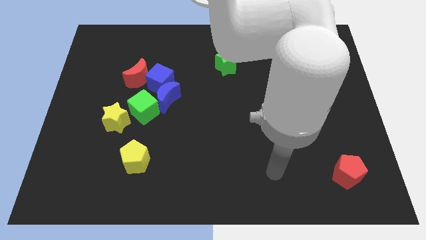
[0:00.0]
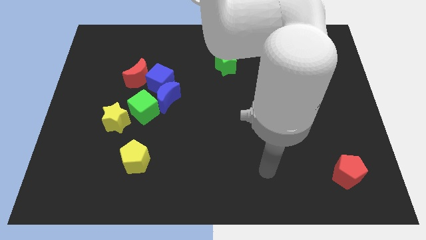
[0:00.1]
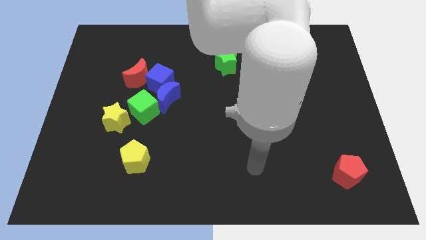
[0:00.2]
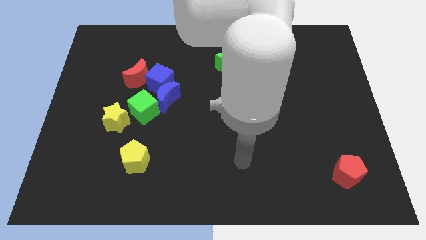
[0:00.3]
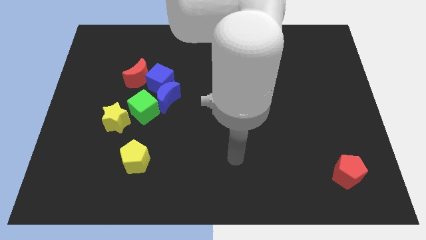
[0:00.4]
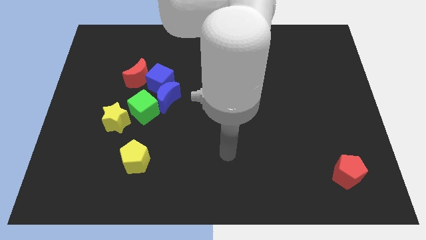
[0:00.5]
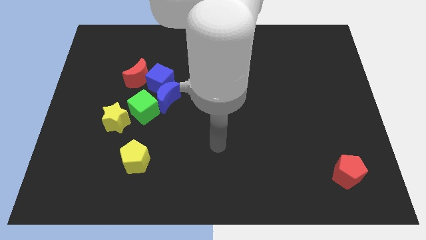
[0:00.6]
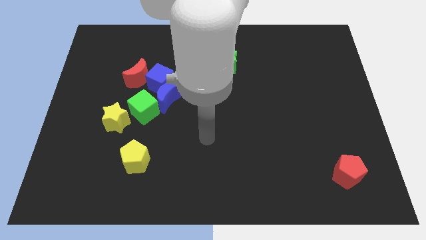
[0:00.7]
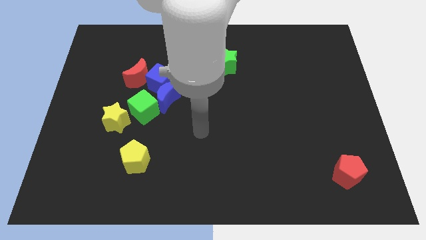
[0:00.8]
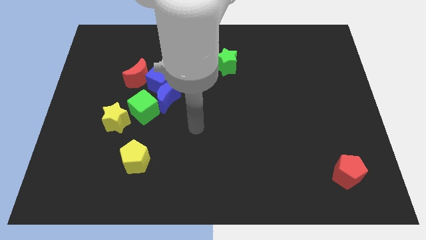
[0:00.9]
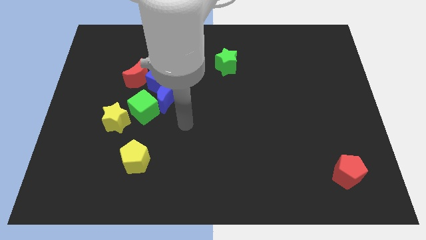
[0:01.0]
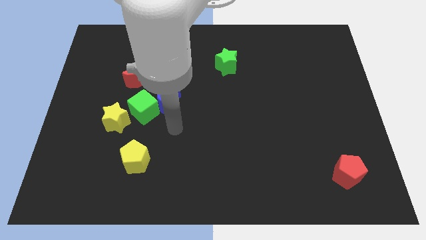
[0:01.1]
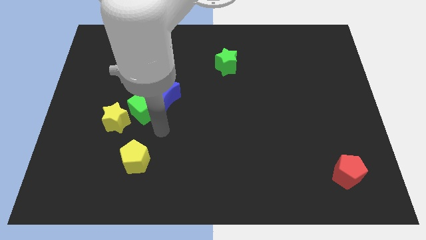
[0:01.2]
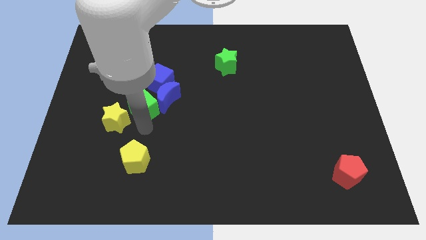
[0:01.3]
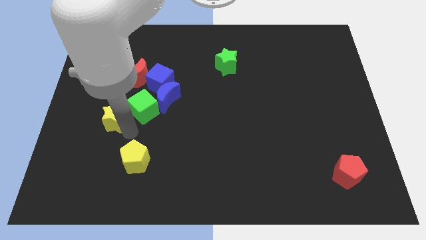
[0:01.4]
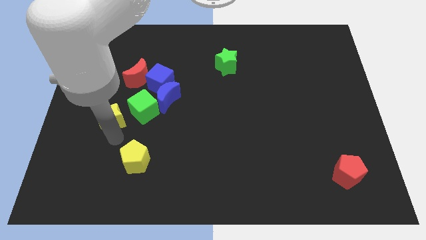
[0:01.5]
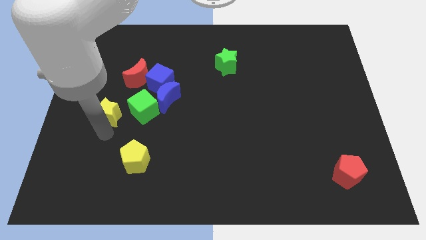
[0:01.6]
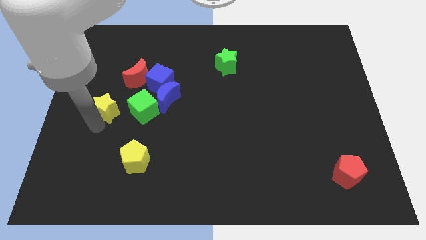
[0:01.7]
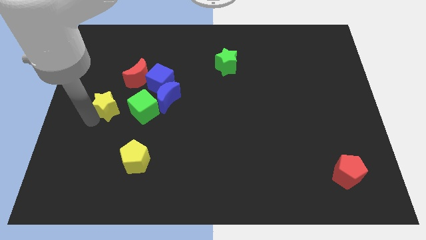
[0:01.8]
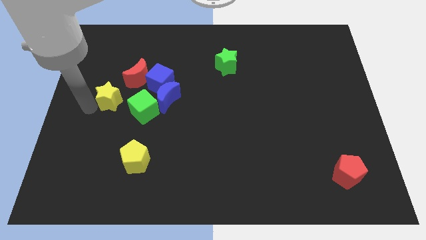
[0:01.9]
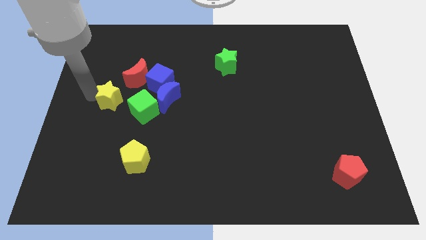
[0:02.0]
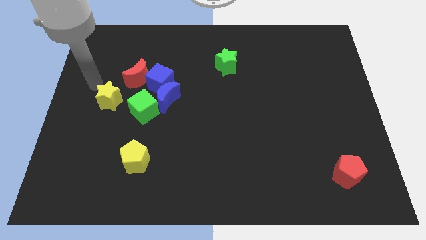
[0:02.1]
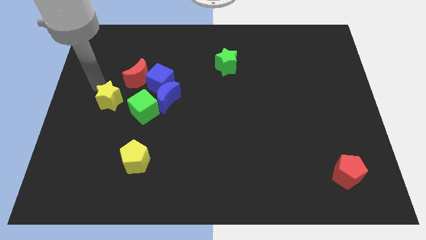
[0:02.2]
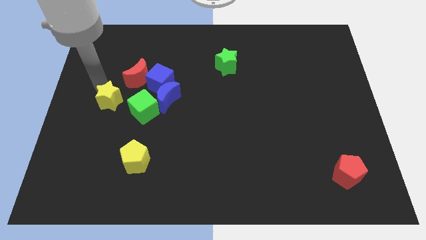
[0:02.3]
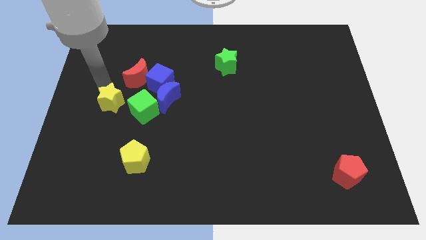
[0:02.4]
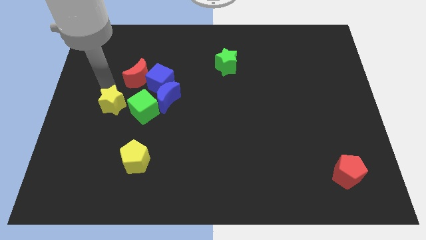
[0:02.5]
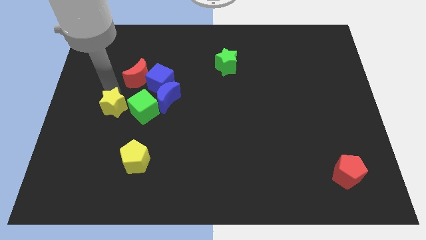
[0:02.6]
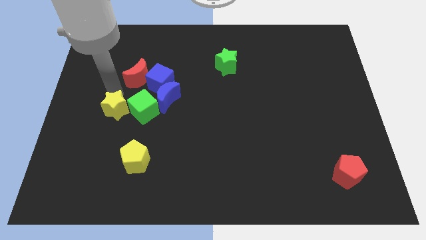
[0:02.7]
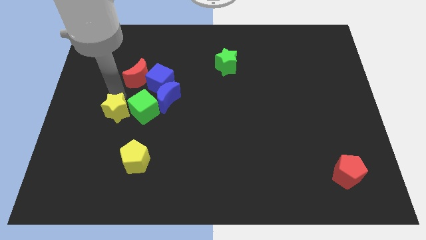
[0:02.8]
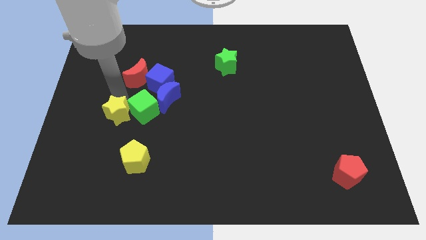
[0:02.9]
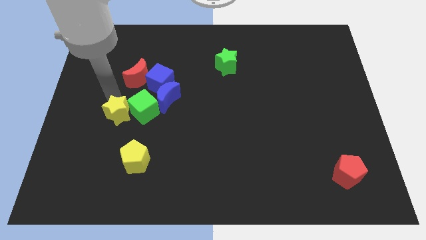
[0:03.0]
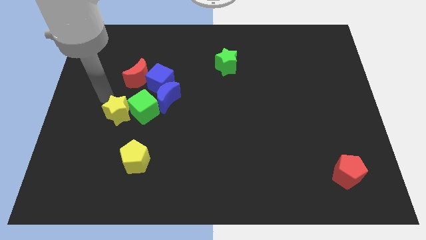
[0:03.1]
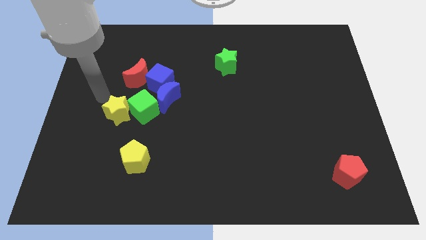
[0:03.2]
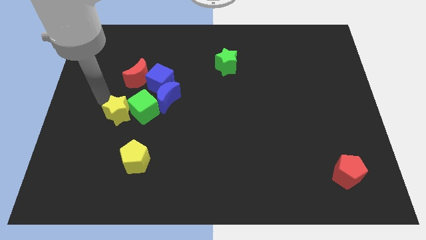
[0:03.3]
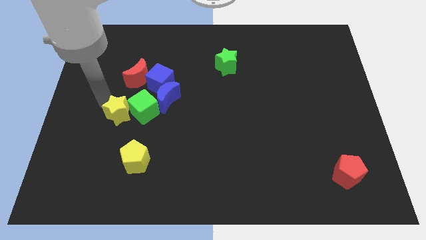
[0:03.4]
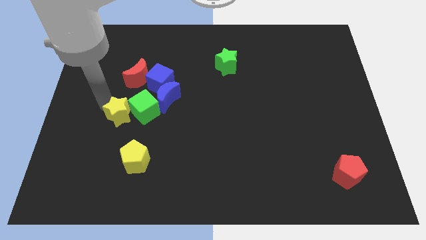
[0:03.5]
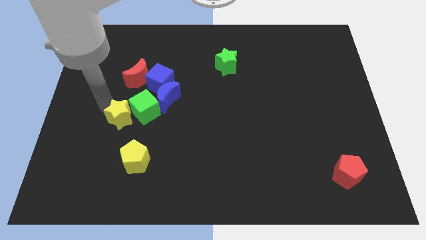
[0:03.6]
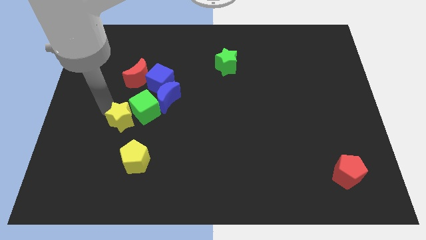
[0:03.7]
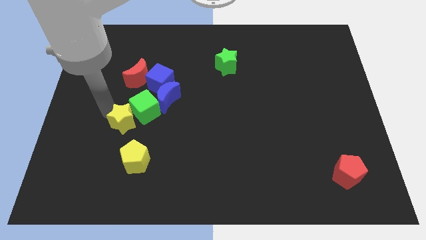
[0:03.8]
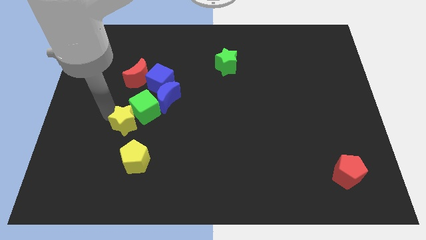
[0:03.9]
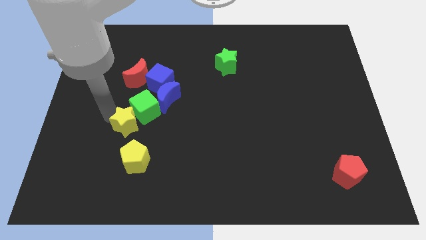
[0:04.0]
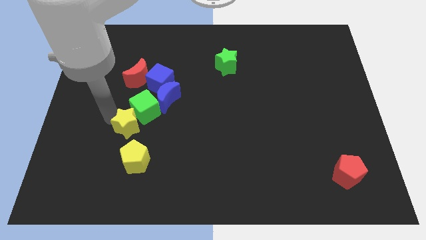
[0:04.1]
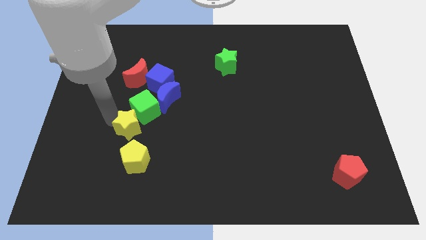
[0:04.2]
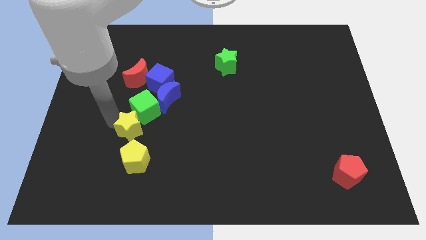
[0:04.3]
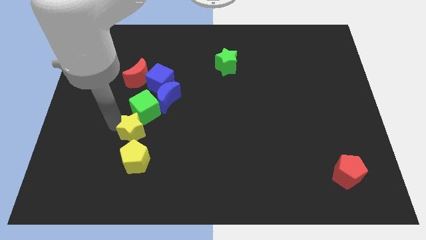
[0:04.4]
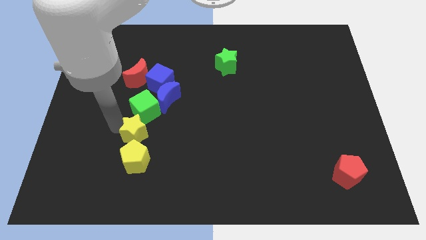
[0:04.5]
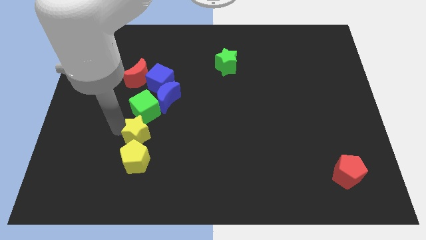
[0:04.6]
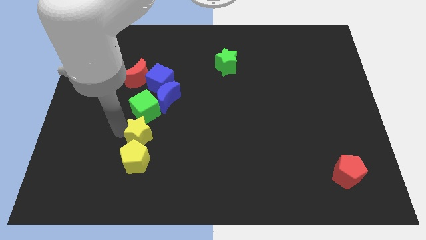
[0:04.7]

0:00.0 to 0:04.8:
slide the yellow star to the top right side of the yellow pentagon

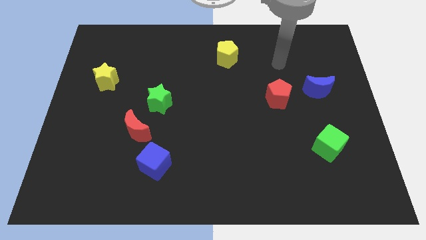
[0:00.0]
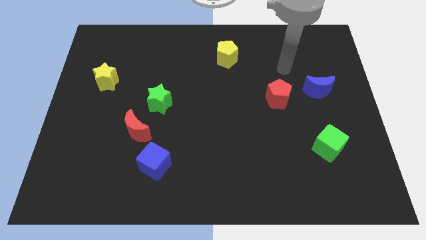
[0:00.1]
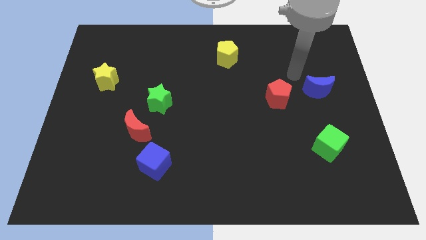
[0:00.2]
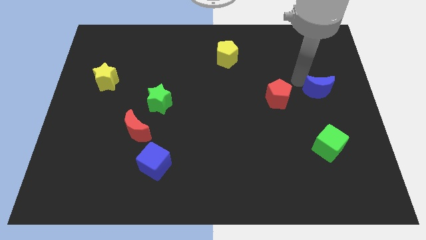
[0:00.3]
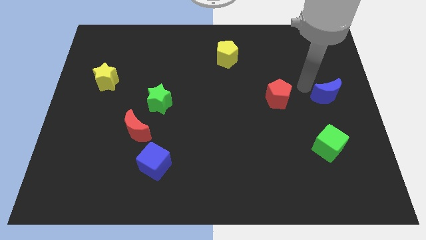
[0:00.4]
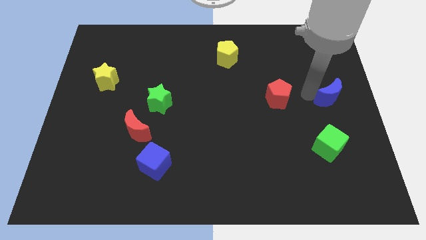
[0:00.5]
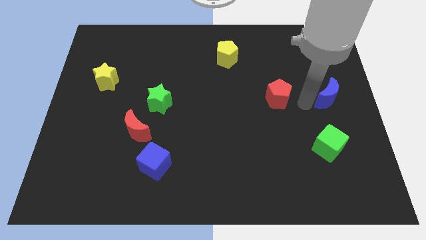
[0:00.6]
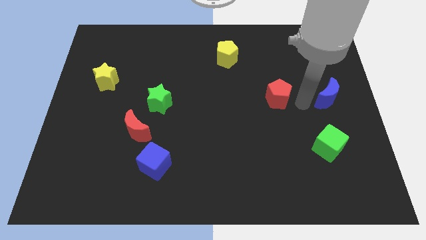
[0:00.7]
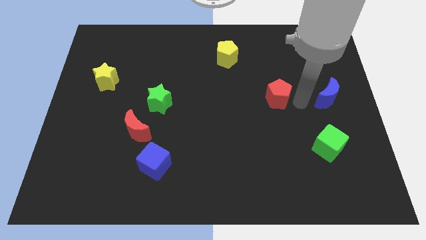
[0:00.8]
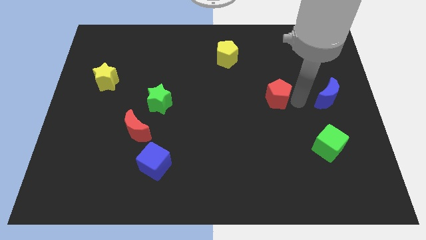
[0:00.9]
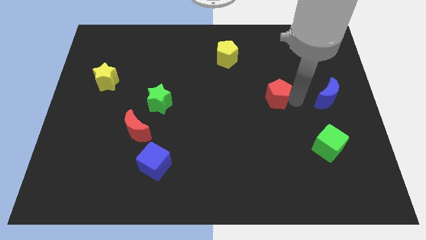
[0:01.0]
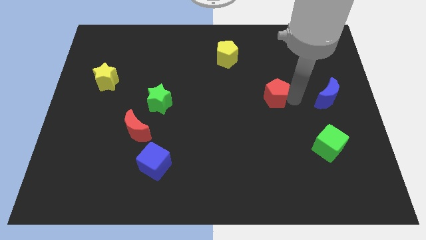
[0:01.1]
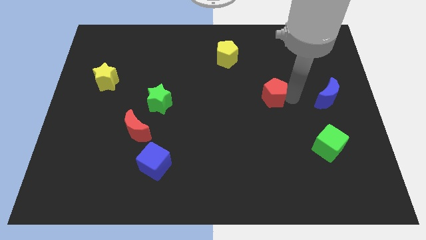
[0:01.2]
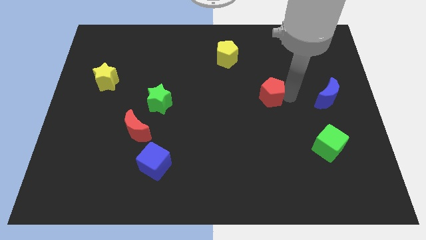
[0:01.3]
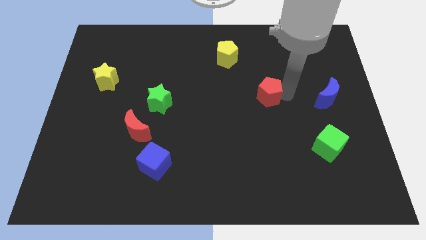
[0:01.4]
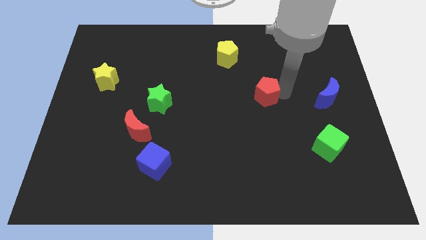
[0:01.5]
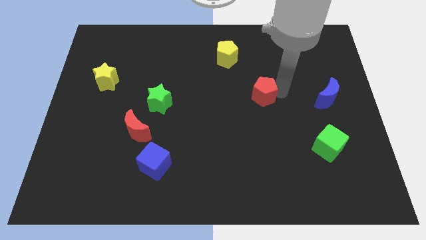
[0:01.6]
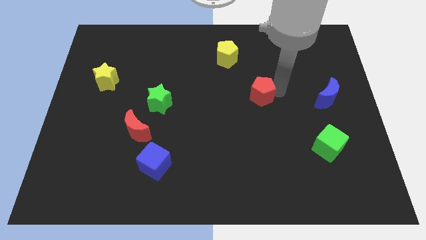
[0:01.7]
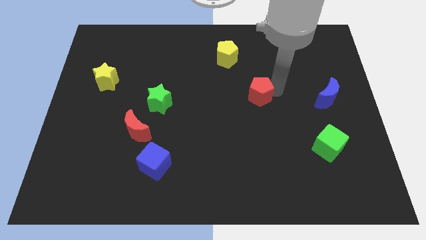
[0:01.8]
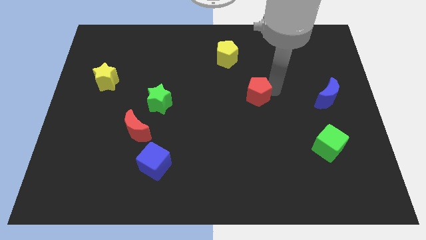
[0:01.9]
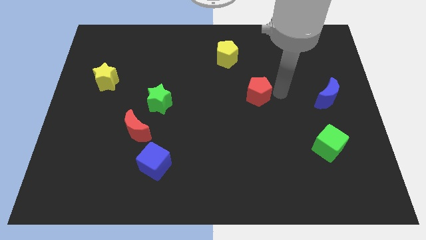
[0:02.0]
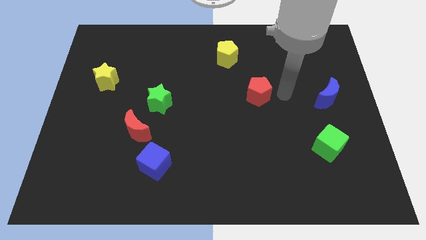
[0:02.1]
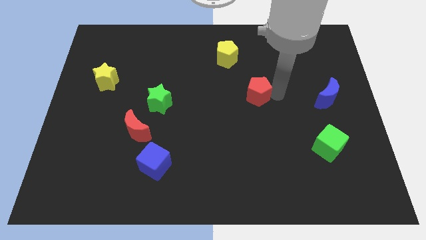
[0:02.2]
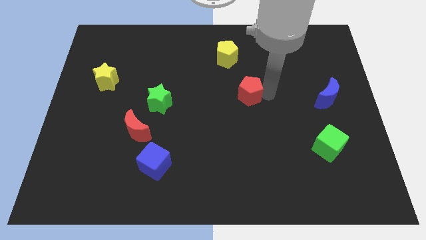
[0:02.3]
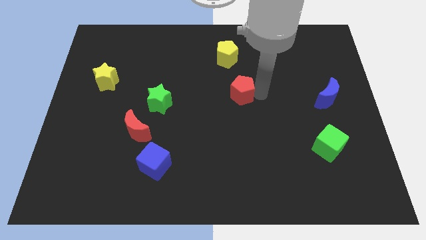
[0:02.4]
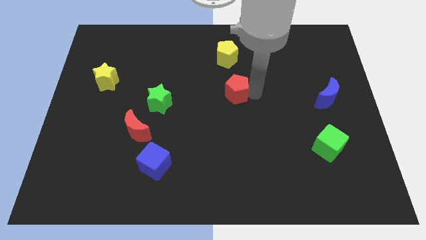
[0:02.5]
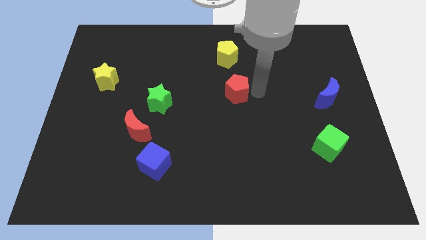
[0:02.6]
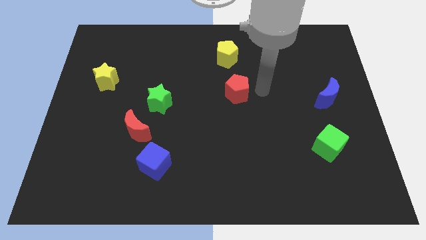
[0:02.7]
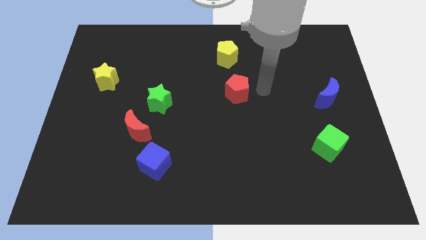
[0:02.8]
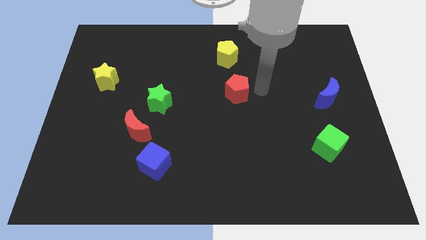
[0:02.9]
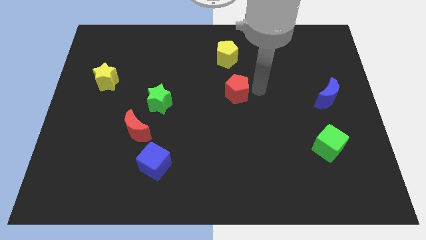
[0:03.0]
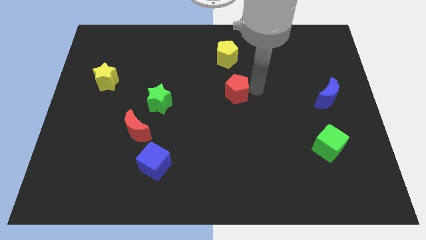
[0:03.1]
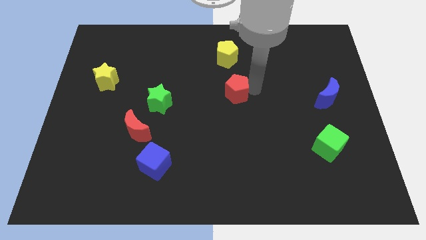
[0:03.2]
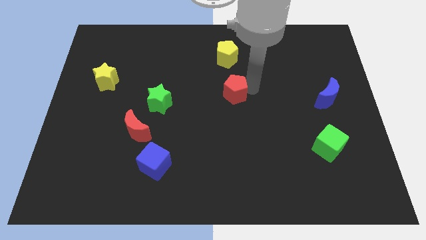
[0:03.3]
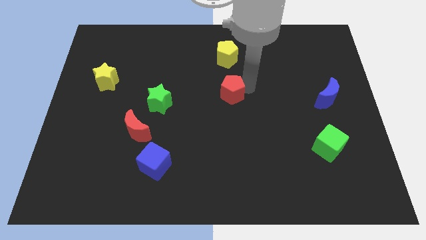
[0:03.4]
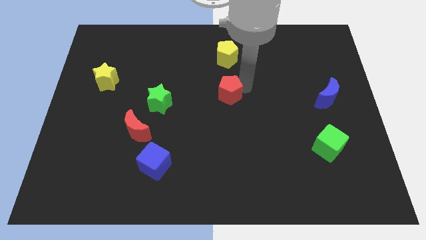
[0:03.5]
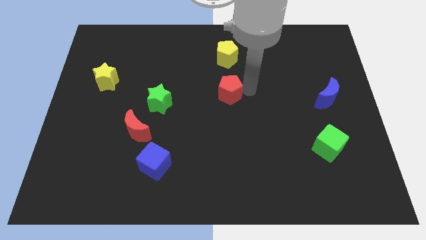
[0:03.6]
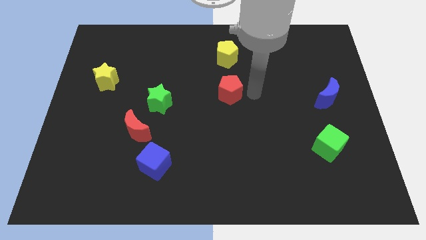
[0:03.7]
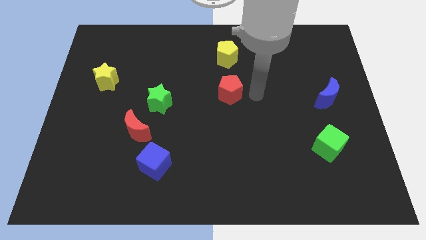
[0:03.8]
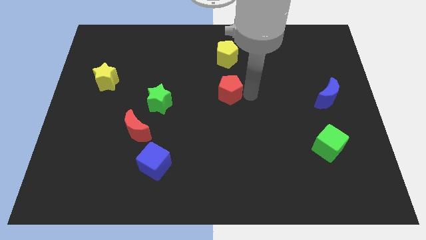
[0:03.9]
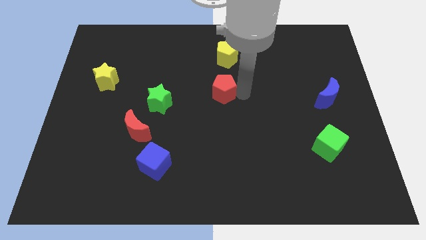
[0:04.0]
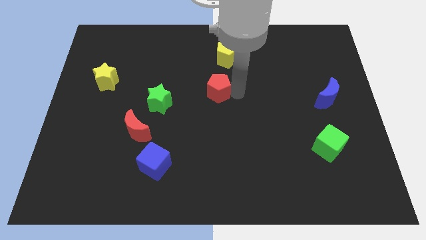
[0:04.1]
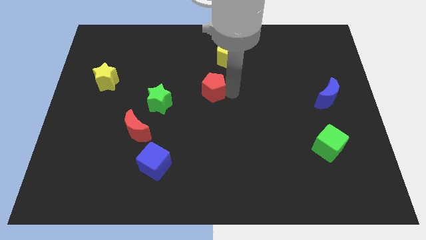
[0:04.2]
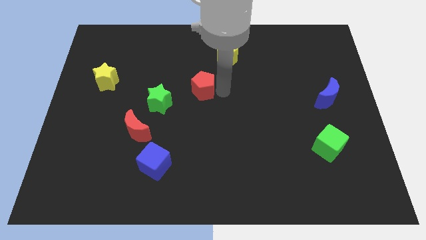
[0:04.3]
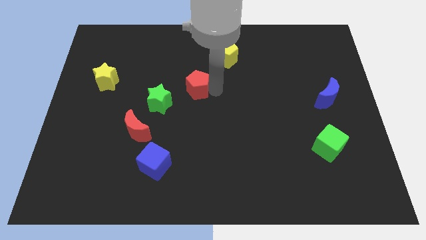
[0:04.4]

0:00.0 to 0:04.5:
put the red pentagon to the top right of the green star
